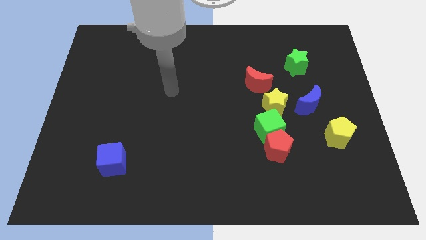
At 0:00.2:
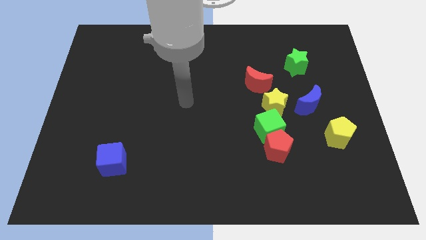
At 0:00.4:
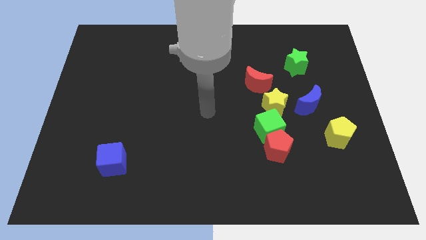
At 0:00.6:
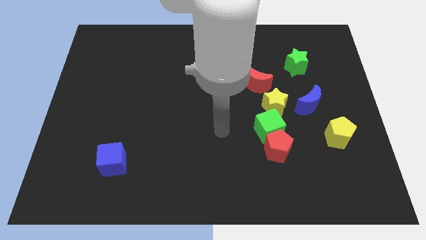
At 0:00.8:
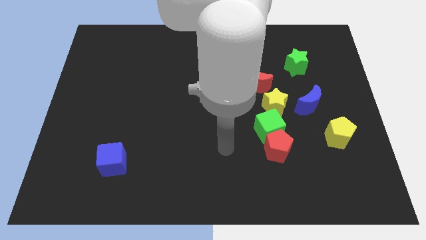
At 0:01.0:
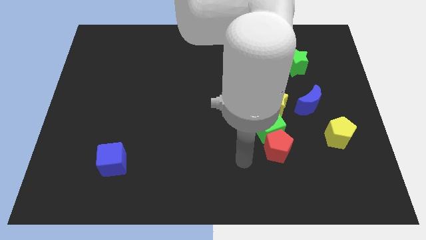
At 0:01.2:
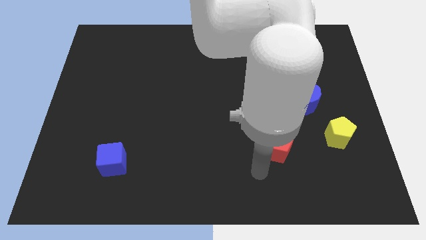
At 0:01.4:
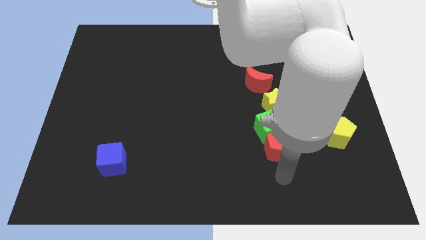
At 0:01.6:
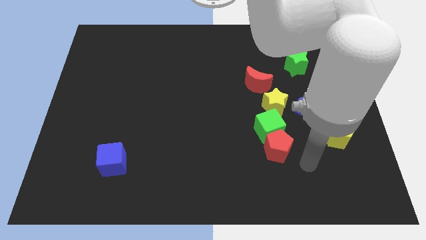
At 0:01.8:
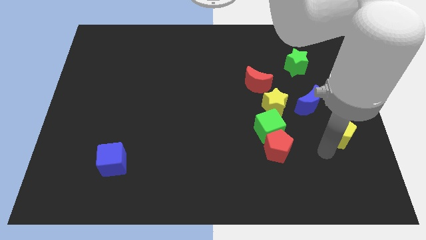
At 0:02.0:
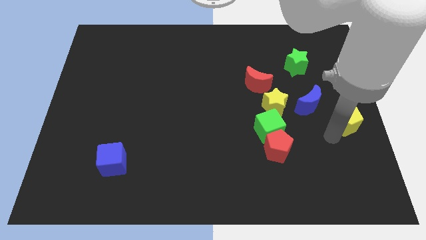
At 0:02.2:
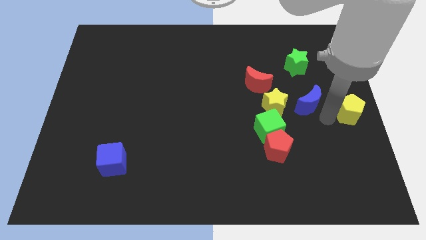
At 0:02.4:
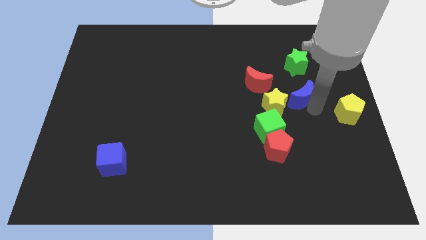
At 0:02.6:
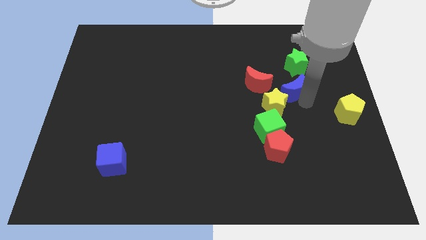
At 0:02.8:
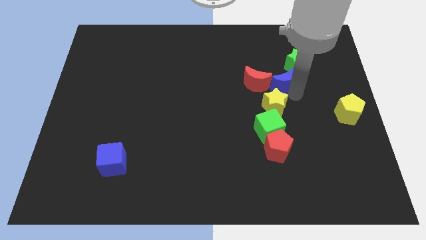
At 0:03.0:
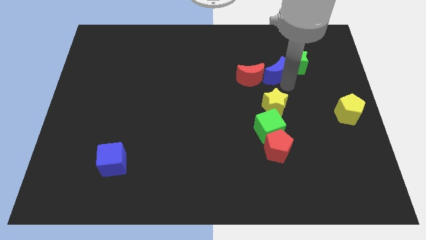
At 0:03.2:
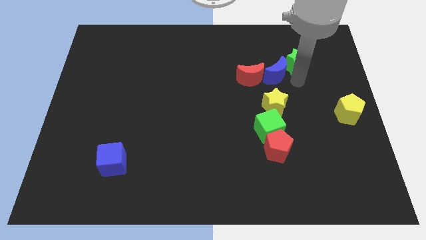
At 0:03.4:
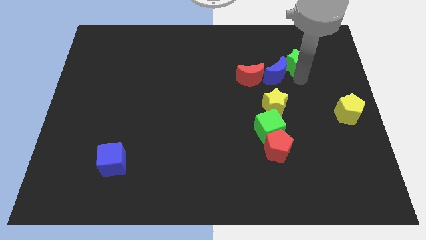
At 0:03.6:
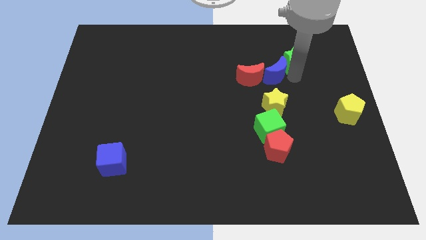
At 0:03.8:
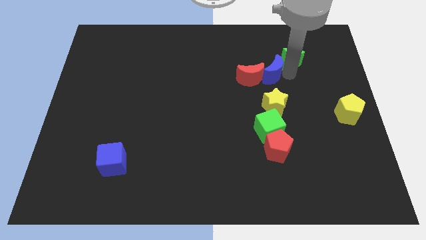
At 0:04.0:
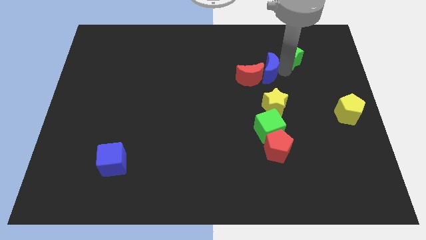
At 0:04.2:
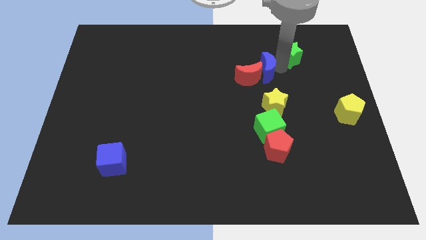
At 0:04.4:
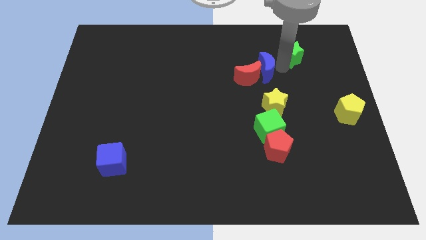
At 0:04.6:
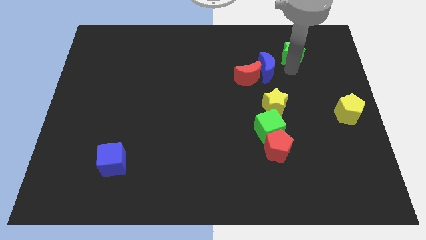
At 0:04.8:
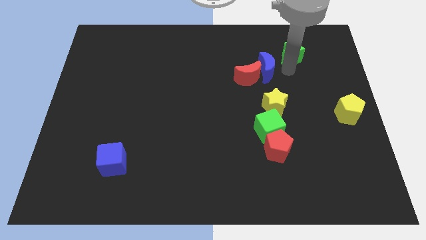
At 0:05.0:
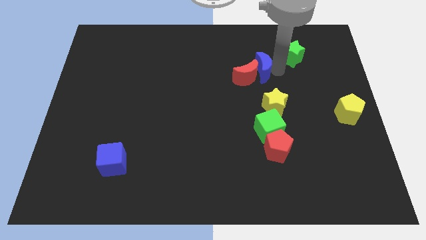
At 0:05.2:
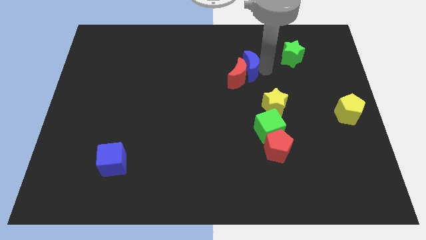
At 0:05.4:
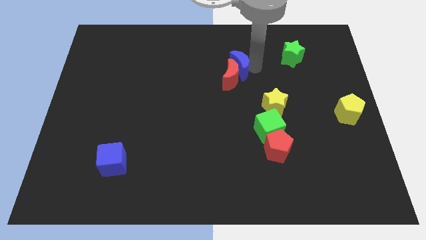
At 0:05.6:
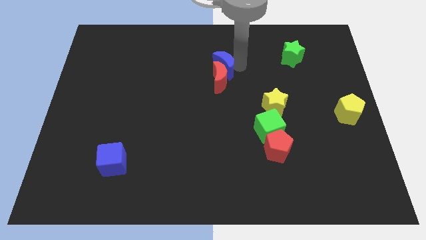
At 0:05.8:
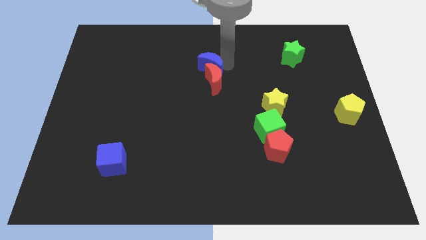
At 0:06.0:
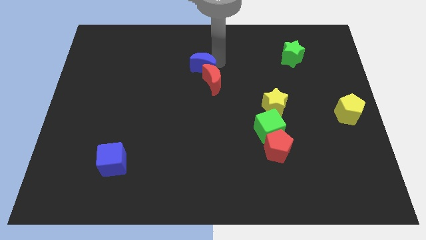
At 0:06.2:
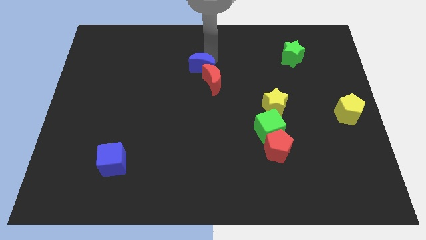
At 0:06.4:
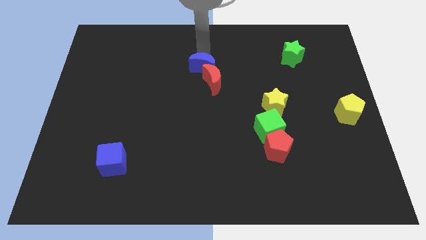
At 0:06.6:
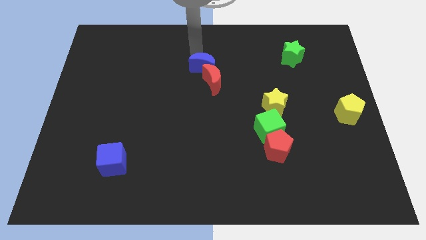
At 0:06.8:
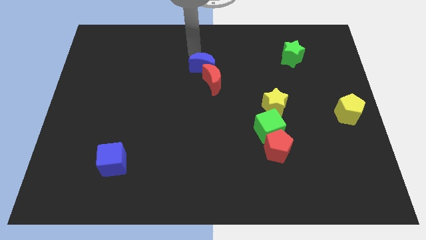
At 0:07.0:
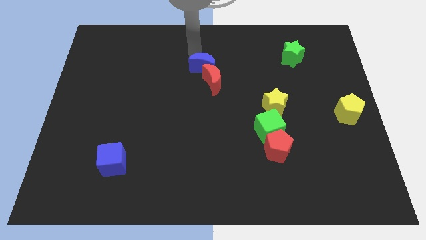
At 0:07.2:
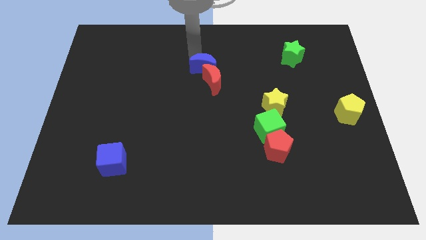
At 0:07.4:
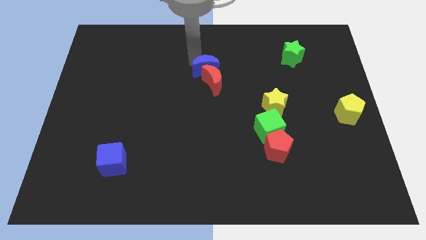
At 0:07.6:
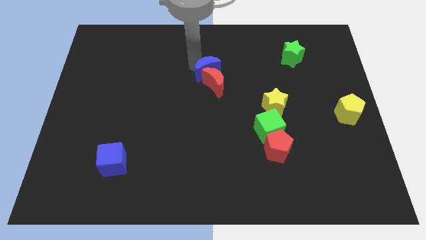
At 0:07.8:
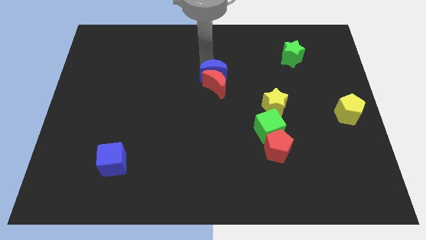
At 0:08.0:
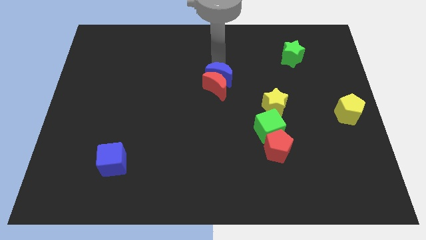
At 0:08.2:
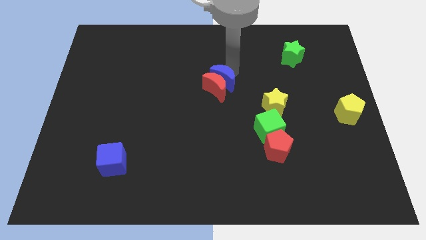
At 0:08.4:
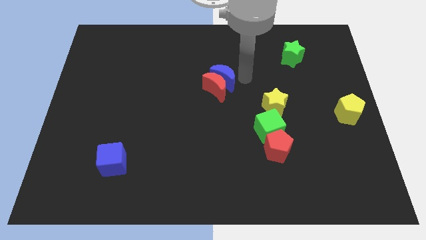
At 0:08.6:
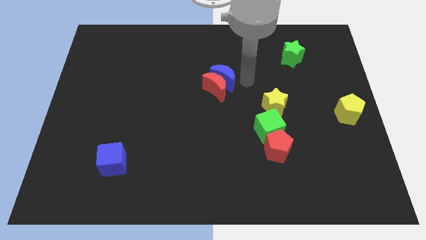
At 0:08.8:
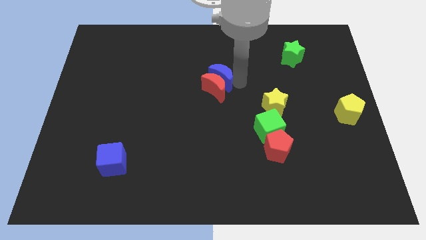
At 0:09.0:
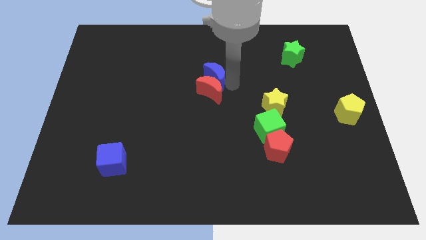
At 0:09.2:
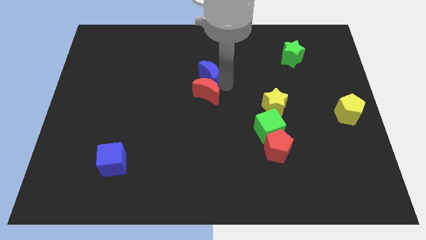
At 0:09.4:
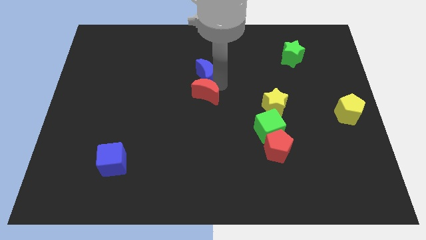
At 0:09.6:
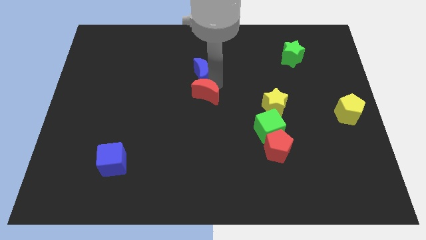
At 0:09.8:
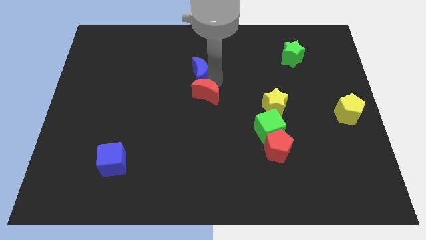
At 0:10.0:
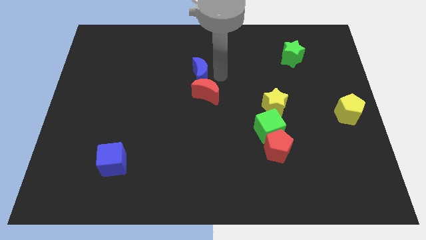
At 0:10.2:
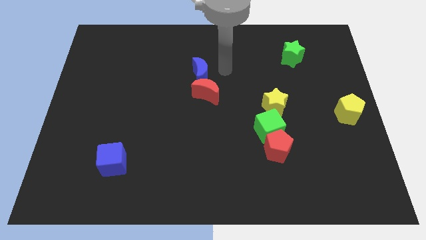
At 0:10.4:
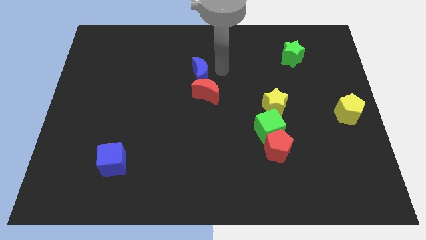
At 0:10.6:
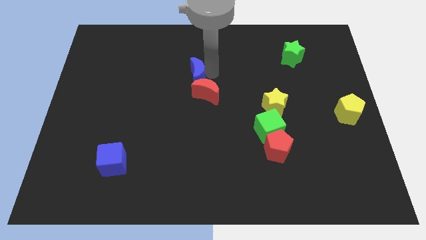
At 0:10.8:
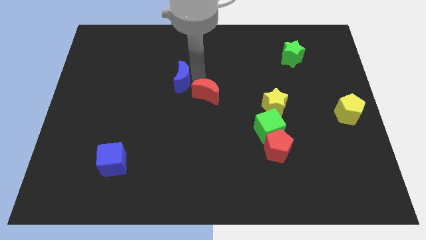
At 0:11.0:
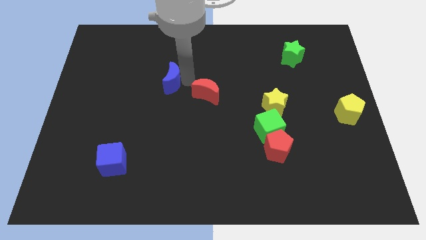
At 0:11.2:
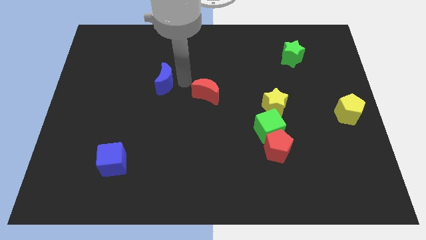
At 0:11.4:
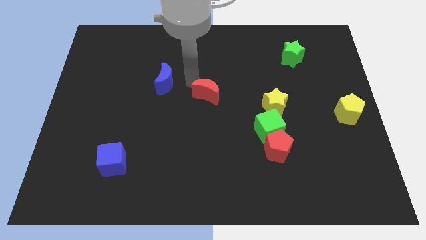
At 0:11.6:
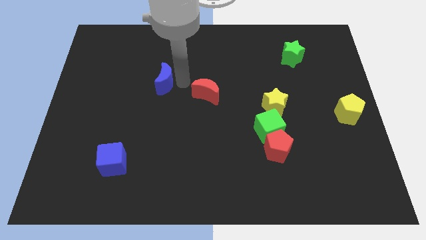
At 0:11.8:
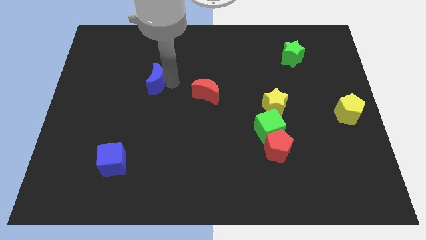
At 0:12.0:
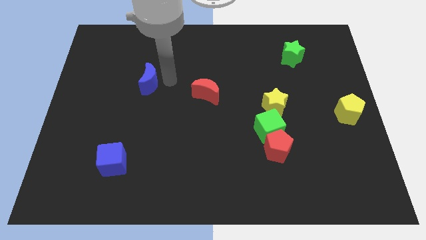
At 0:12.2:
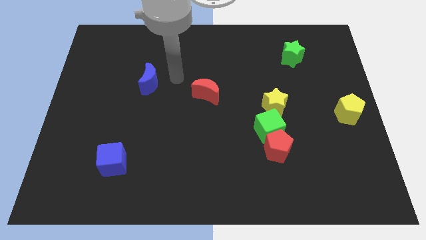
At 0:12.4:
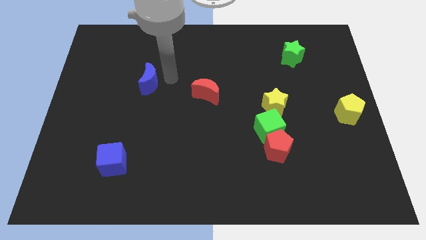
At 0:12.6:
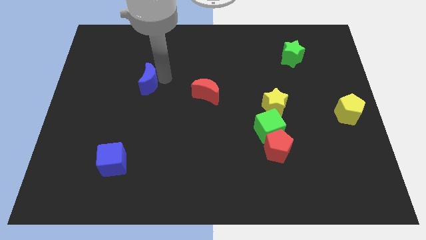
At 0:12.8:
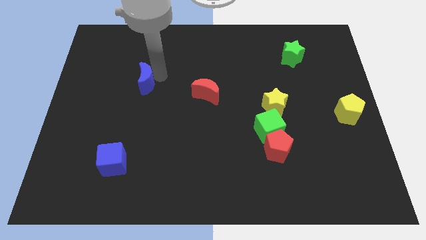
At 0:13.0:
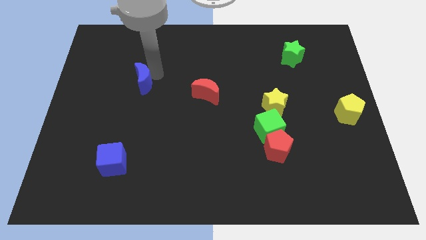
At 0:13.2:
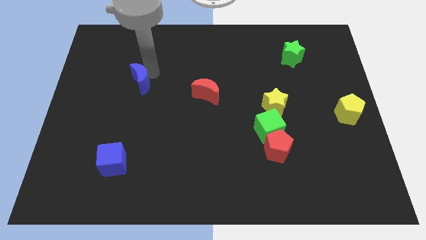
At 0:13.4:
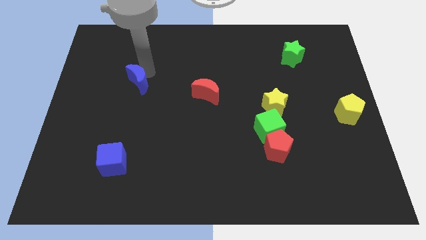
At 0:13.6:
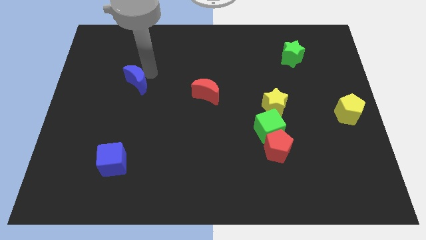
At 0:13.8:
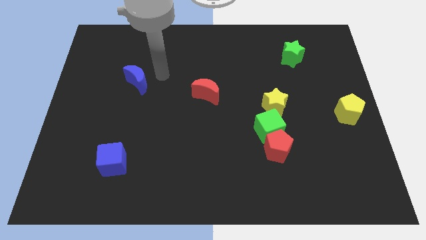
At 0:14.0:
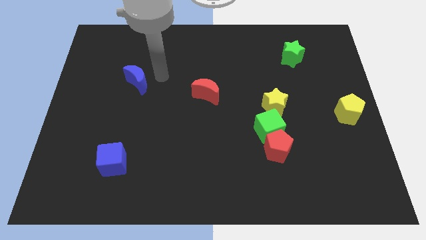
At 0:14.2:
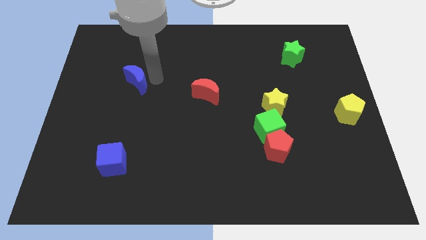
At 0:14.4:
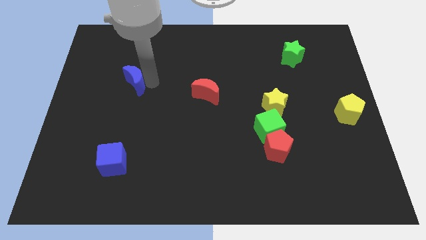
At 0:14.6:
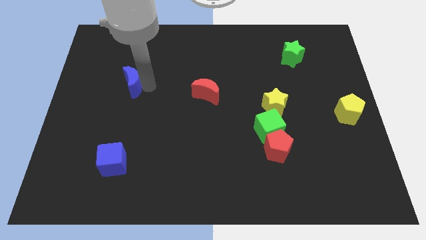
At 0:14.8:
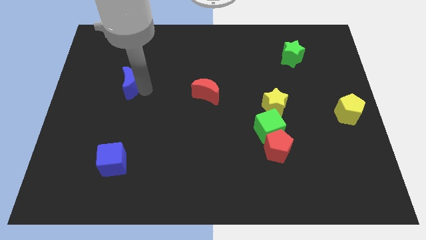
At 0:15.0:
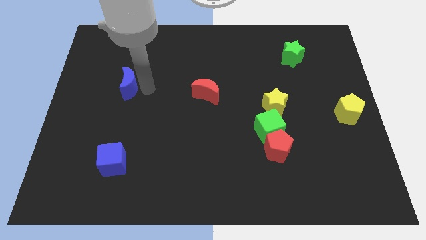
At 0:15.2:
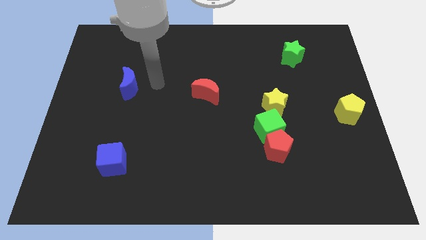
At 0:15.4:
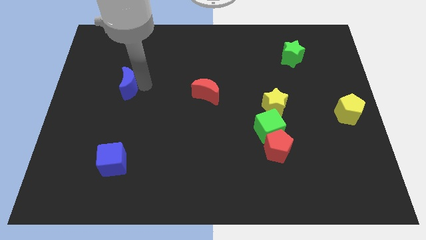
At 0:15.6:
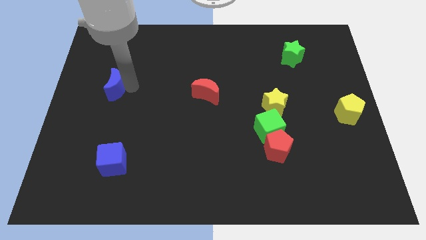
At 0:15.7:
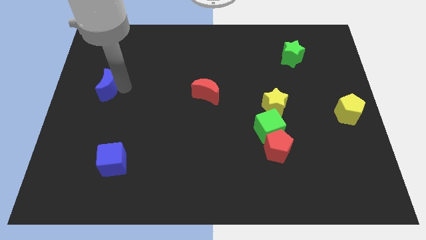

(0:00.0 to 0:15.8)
push the blue moon to the left side of the board
